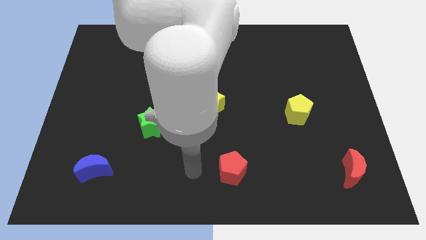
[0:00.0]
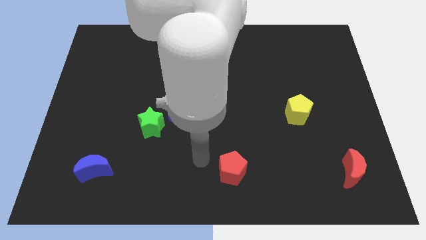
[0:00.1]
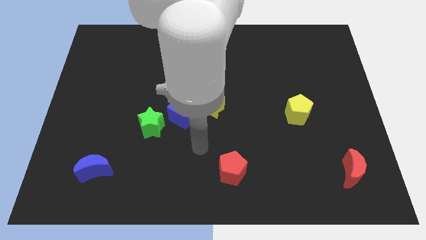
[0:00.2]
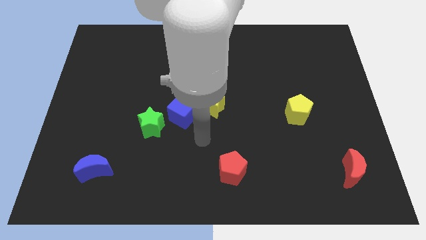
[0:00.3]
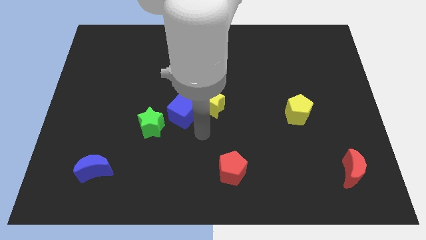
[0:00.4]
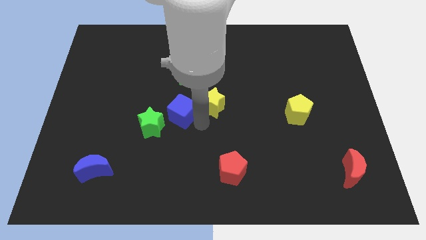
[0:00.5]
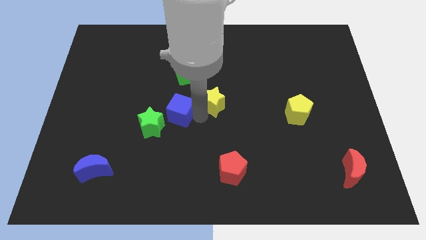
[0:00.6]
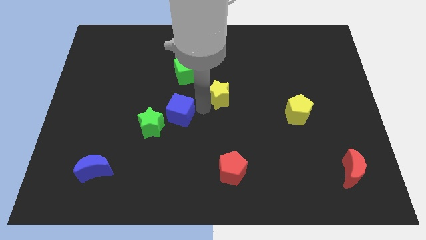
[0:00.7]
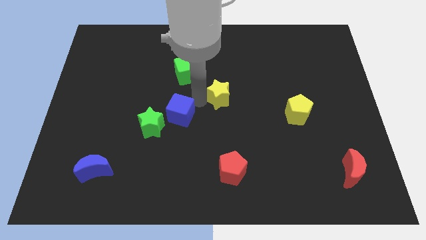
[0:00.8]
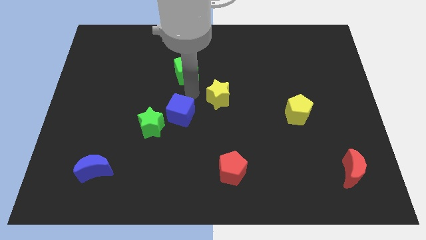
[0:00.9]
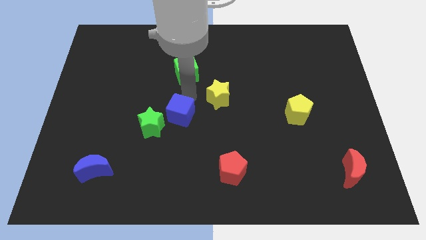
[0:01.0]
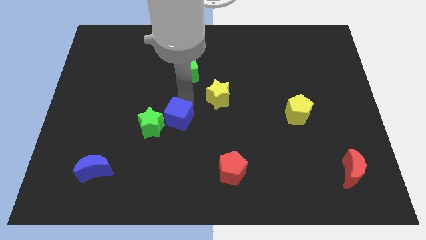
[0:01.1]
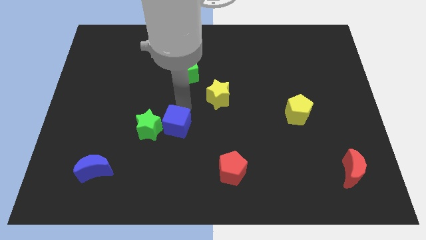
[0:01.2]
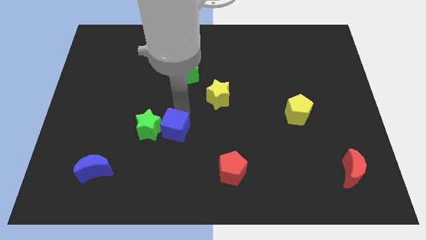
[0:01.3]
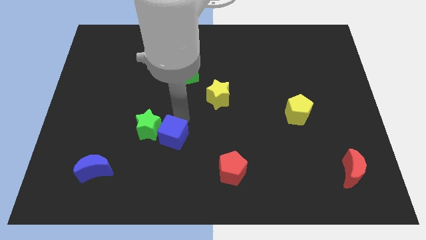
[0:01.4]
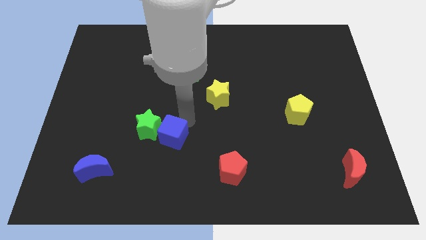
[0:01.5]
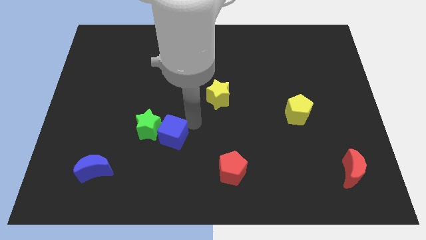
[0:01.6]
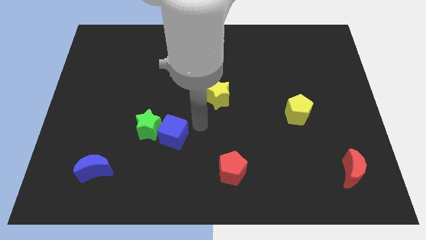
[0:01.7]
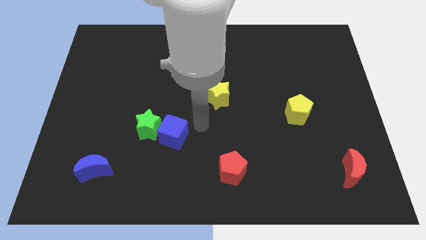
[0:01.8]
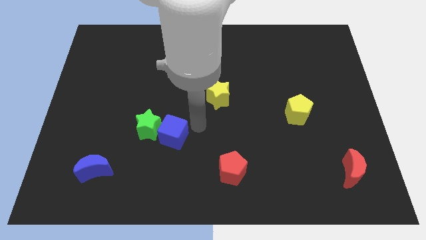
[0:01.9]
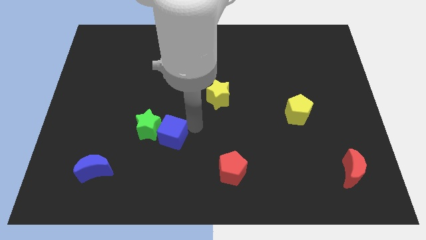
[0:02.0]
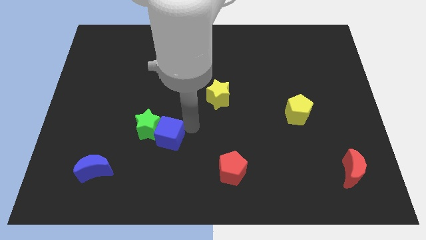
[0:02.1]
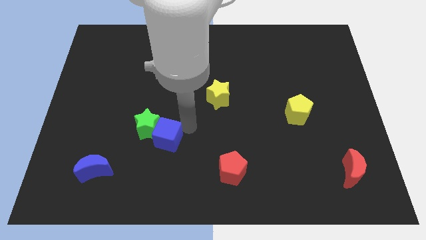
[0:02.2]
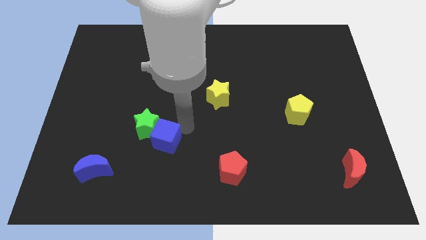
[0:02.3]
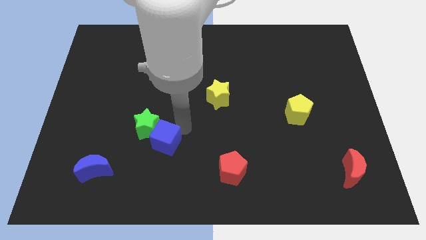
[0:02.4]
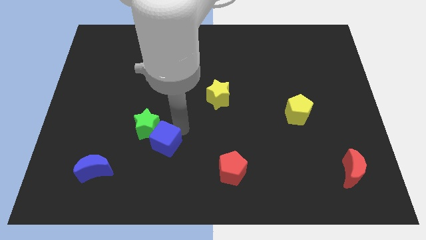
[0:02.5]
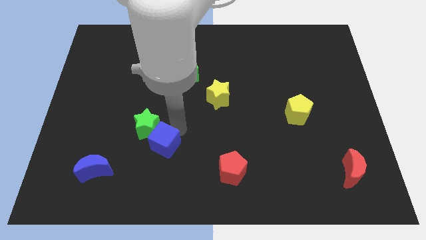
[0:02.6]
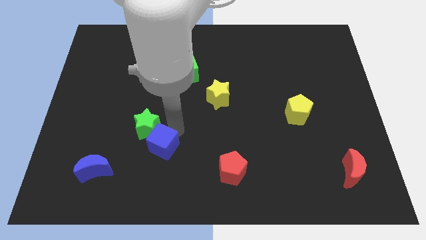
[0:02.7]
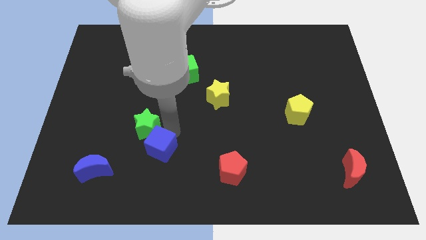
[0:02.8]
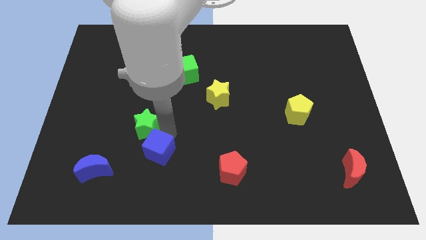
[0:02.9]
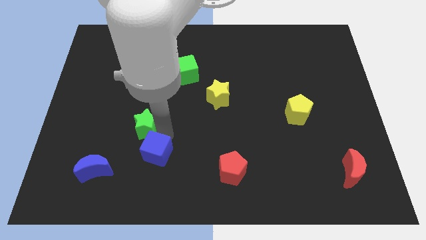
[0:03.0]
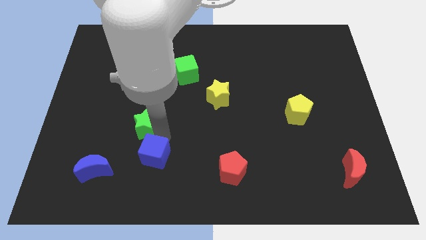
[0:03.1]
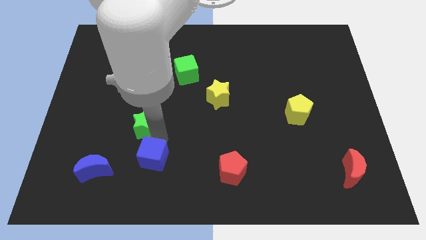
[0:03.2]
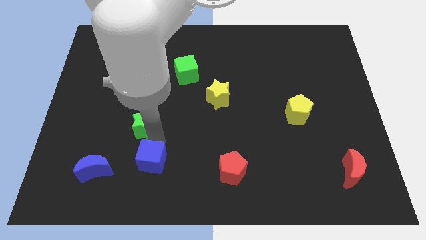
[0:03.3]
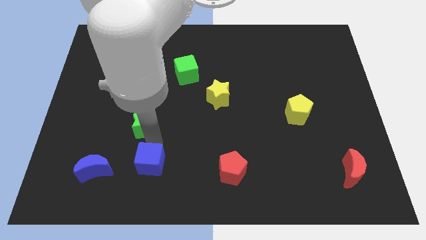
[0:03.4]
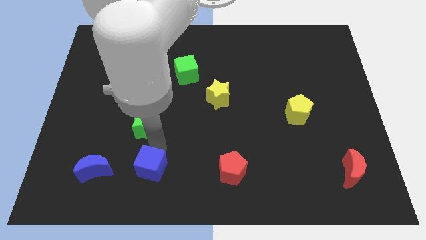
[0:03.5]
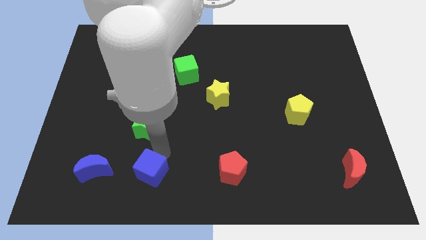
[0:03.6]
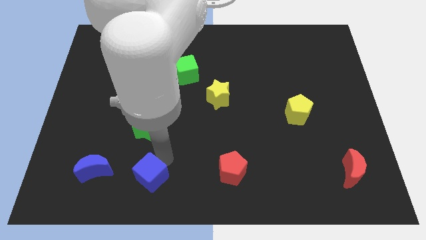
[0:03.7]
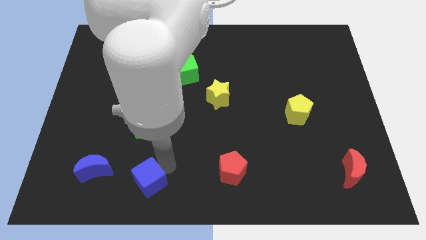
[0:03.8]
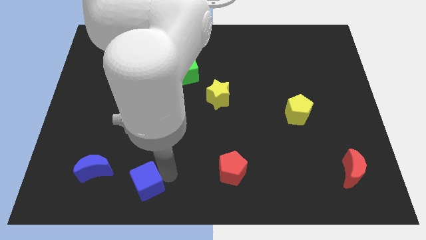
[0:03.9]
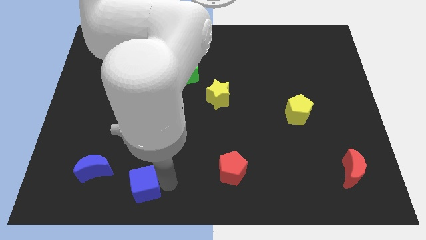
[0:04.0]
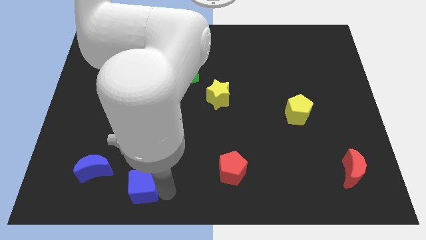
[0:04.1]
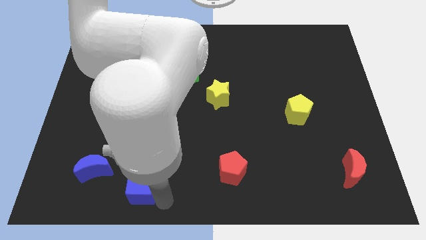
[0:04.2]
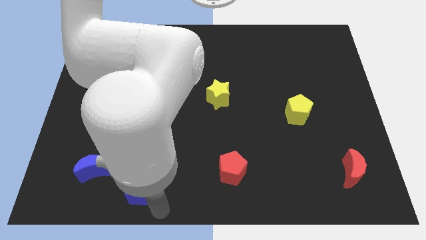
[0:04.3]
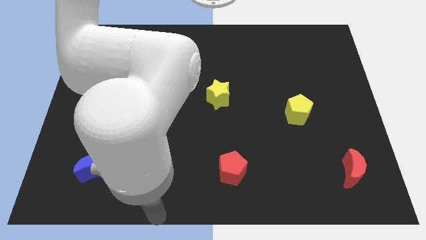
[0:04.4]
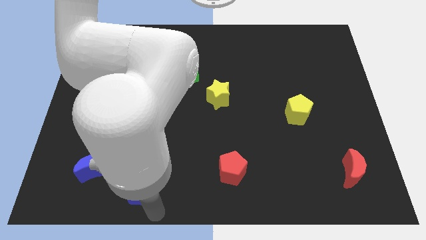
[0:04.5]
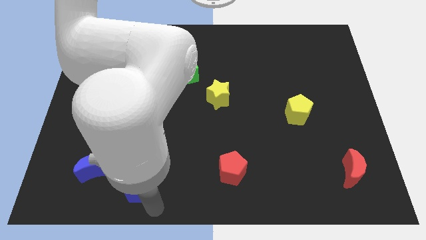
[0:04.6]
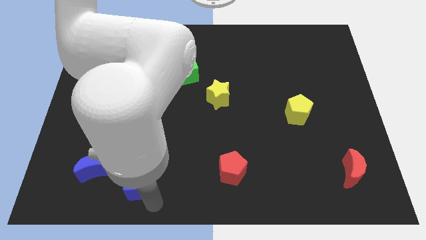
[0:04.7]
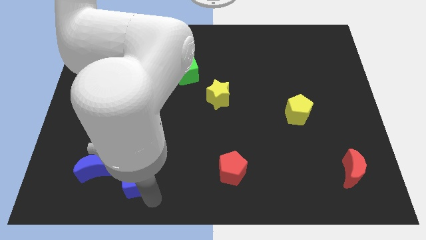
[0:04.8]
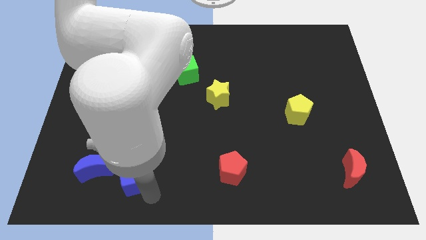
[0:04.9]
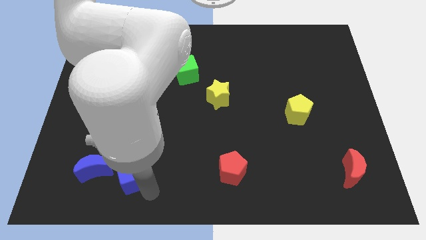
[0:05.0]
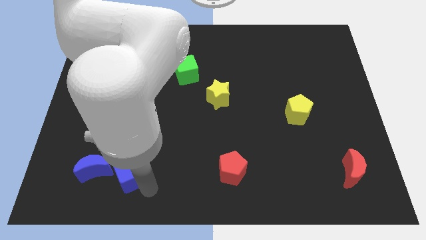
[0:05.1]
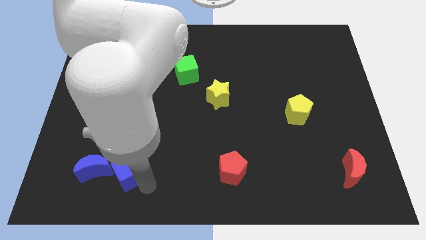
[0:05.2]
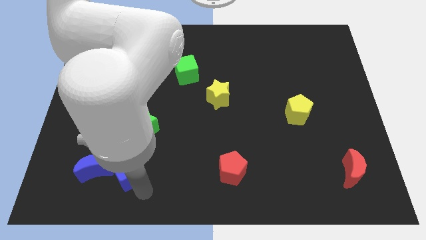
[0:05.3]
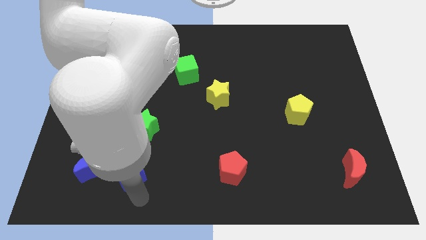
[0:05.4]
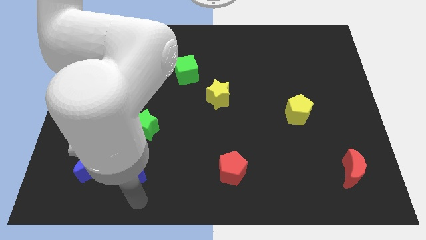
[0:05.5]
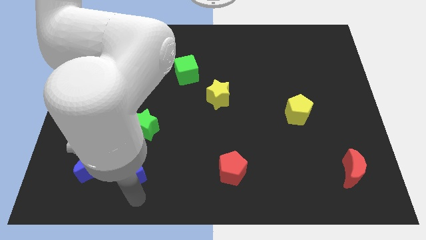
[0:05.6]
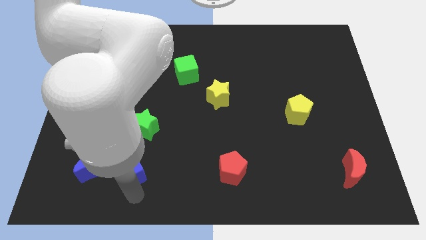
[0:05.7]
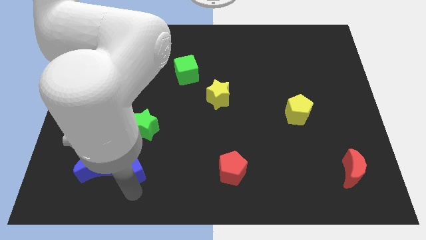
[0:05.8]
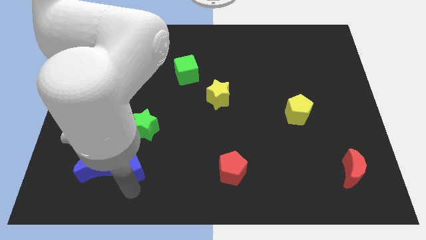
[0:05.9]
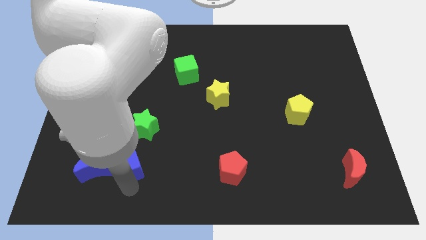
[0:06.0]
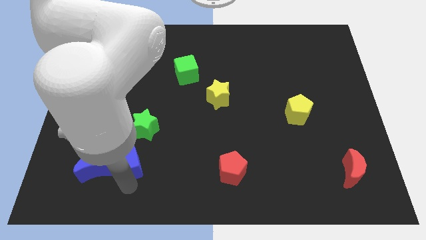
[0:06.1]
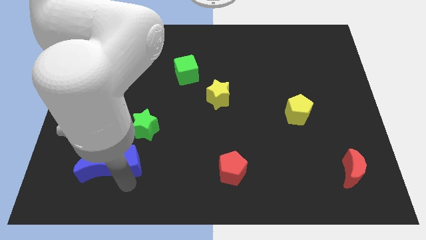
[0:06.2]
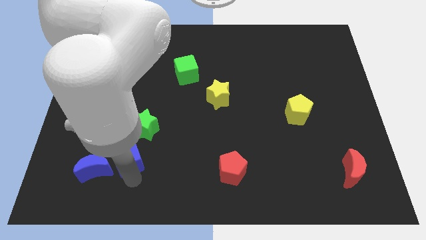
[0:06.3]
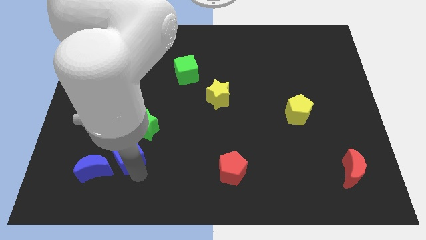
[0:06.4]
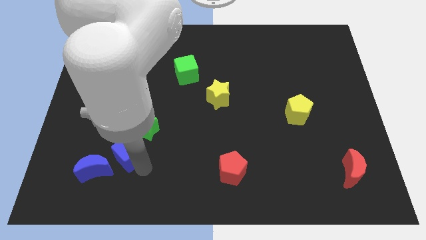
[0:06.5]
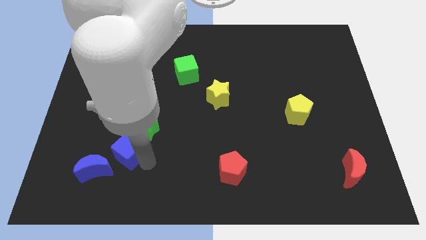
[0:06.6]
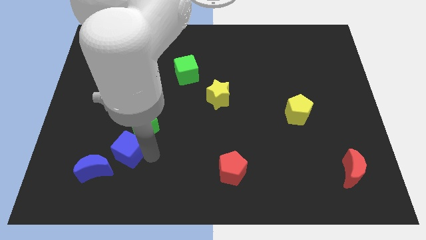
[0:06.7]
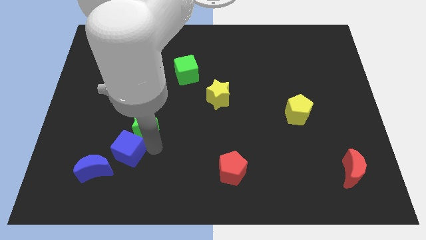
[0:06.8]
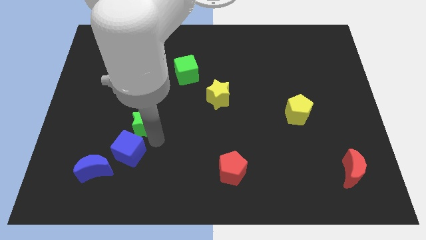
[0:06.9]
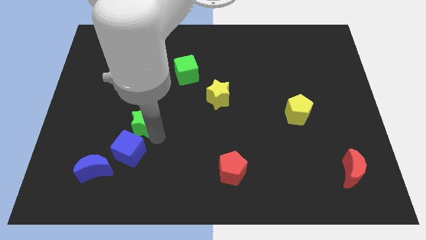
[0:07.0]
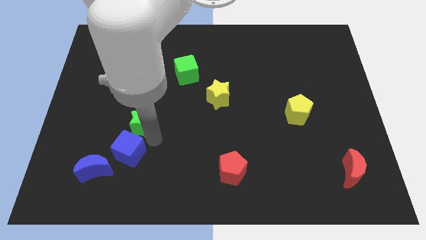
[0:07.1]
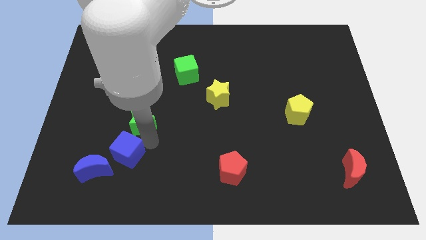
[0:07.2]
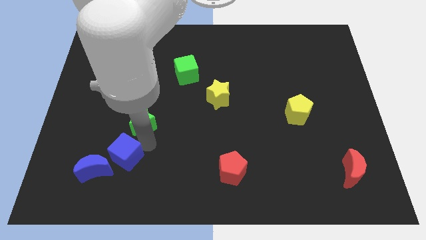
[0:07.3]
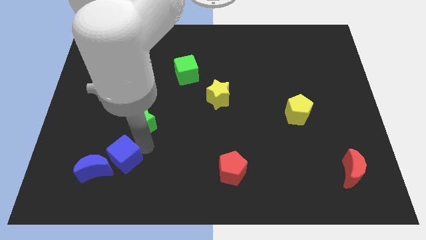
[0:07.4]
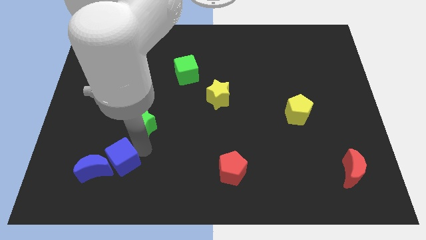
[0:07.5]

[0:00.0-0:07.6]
put the blue cube close to the blue moon
